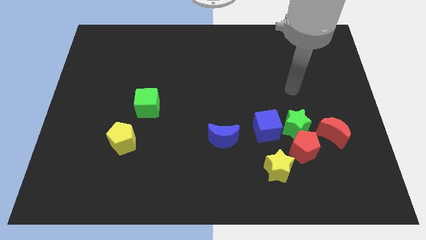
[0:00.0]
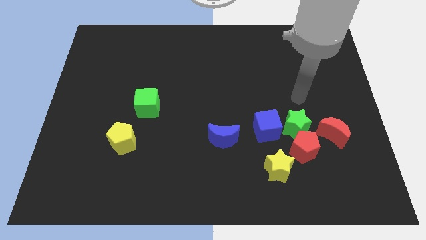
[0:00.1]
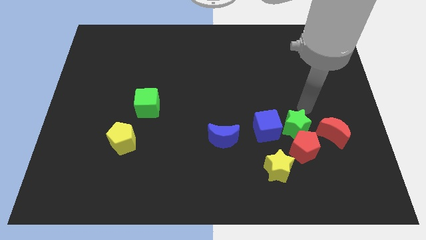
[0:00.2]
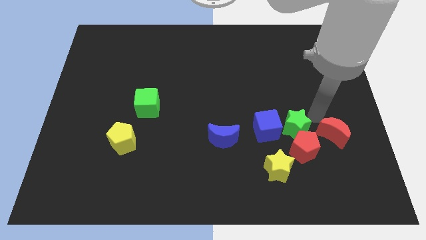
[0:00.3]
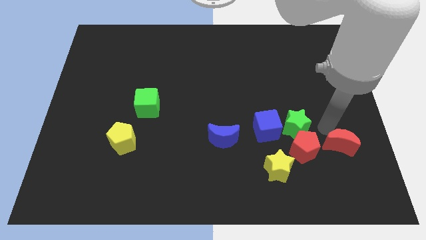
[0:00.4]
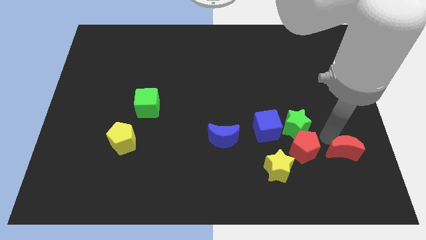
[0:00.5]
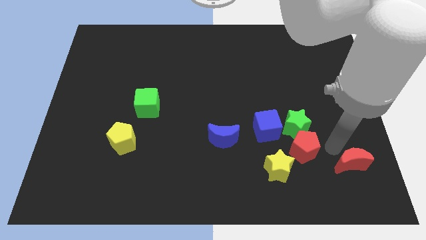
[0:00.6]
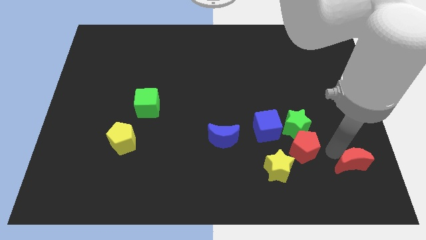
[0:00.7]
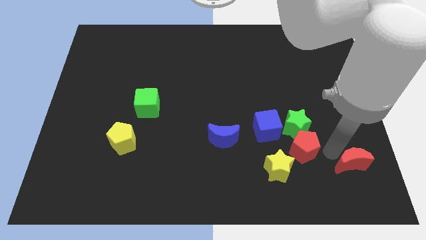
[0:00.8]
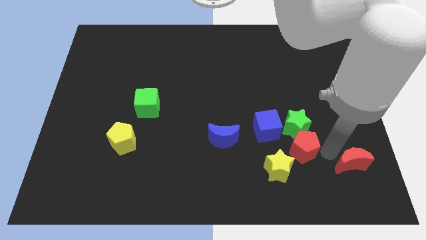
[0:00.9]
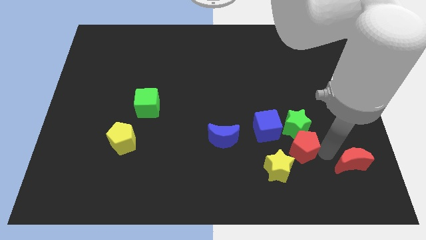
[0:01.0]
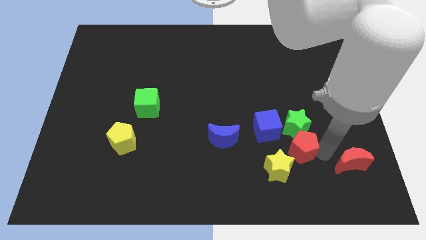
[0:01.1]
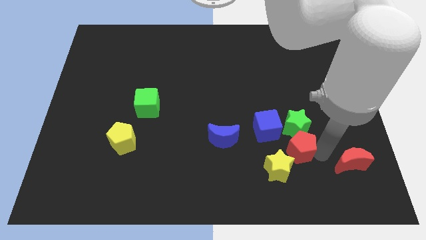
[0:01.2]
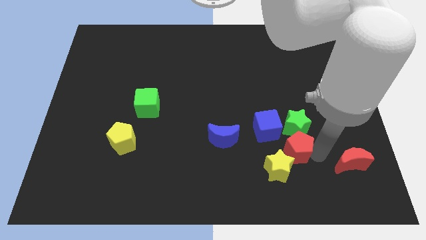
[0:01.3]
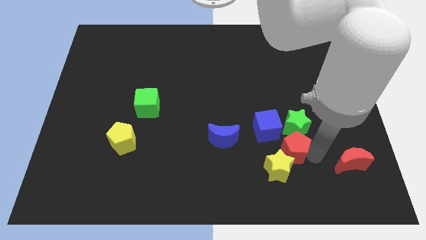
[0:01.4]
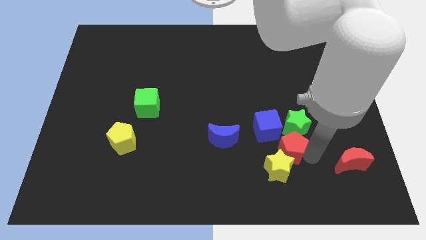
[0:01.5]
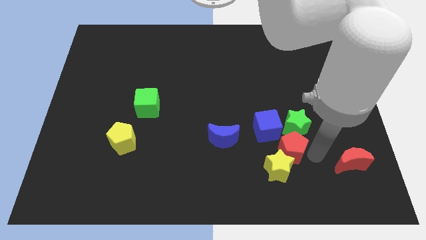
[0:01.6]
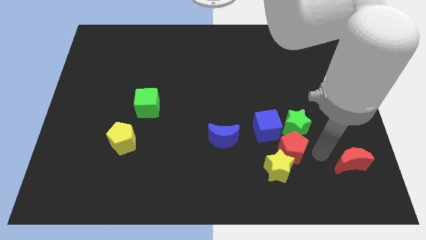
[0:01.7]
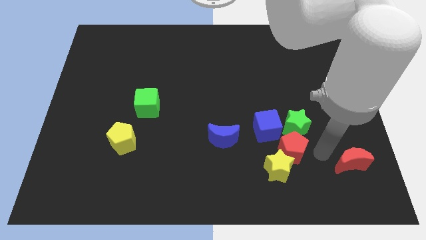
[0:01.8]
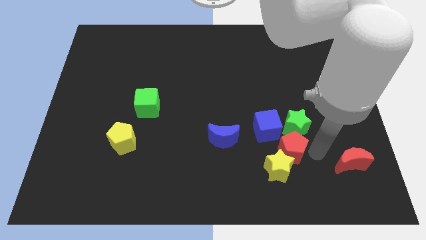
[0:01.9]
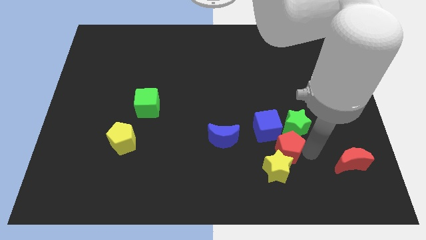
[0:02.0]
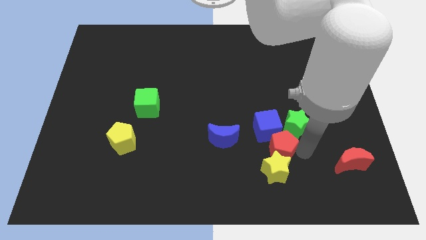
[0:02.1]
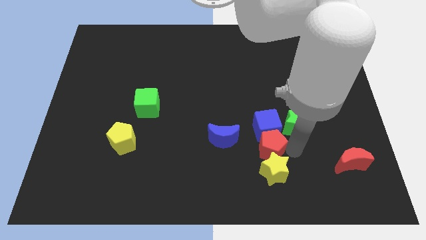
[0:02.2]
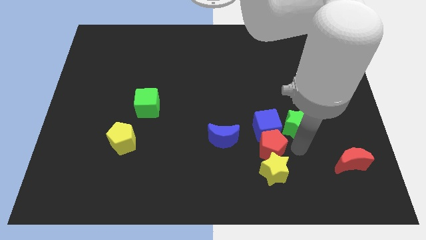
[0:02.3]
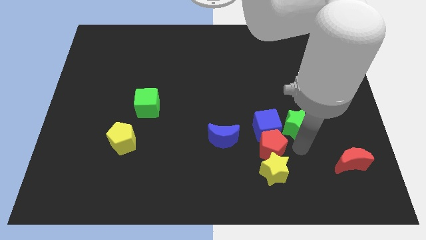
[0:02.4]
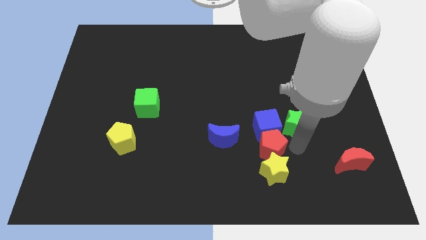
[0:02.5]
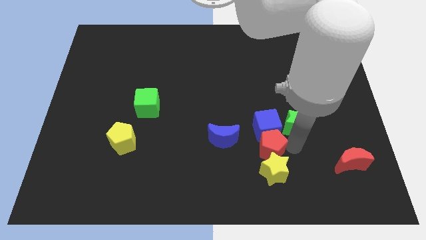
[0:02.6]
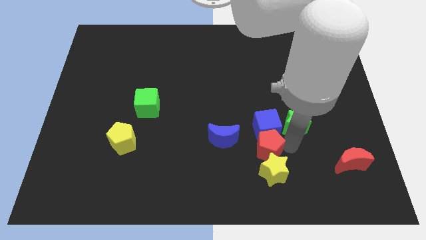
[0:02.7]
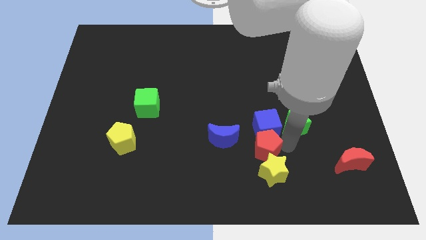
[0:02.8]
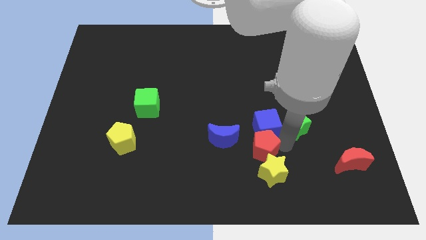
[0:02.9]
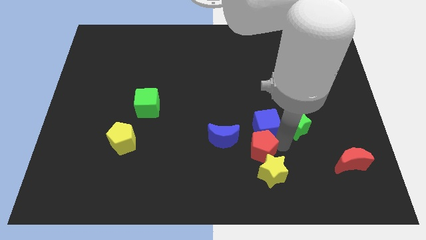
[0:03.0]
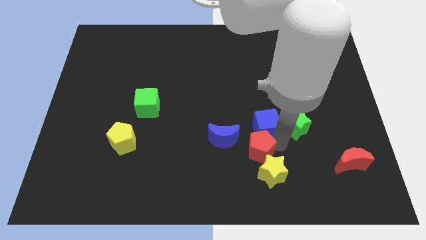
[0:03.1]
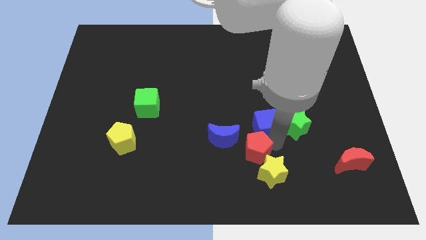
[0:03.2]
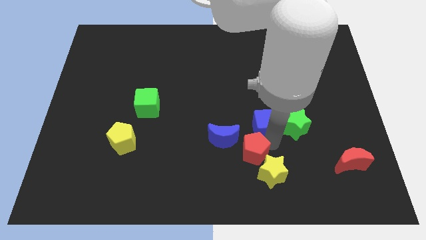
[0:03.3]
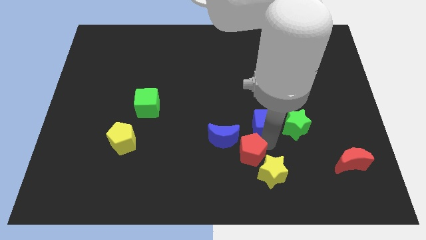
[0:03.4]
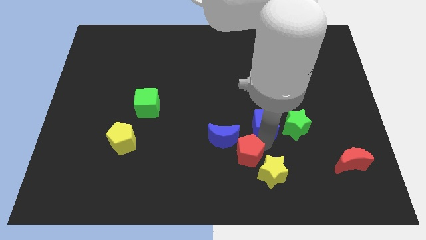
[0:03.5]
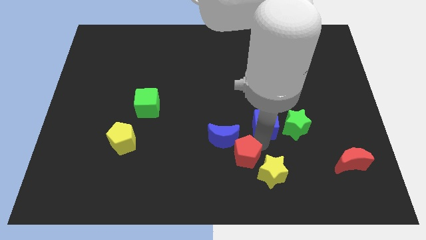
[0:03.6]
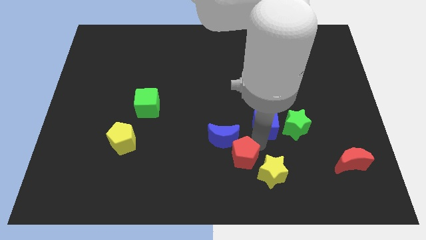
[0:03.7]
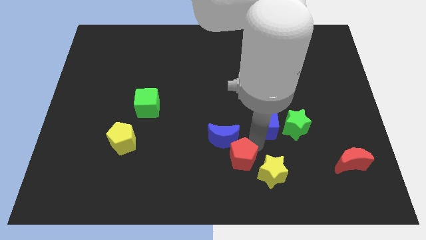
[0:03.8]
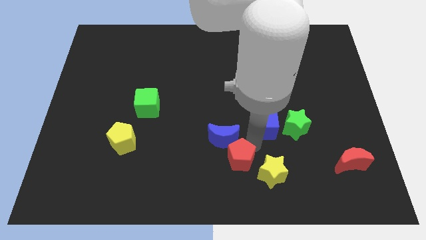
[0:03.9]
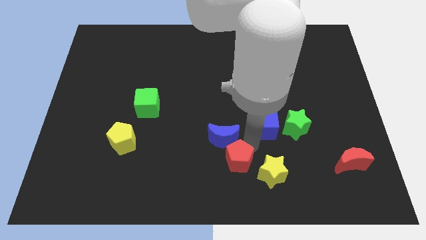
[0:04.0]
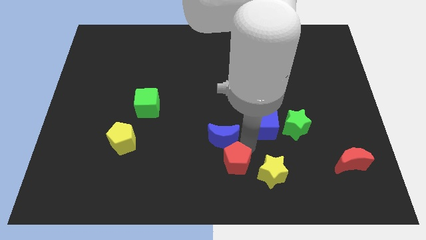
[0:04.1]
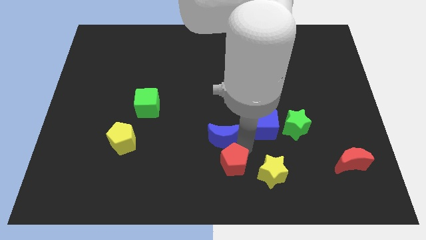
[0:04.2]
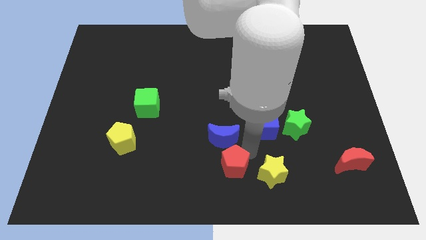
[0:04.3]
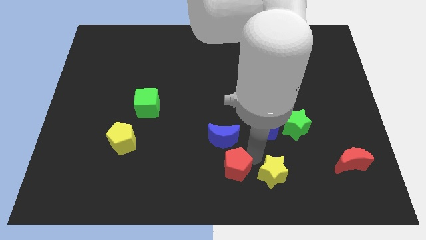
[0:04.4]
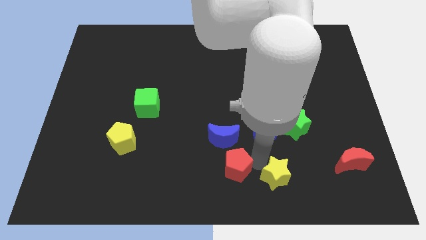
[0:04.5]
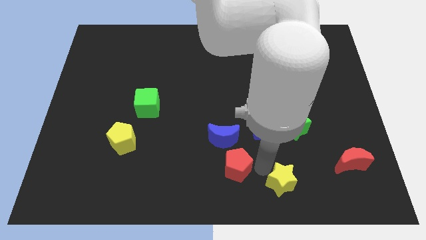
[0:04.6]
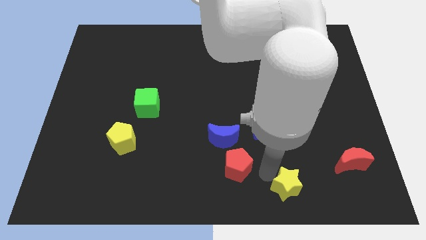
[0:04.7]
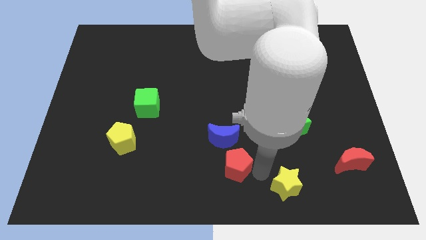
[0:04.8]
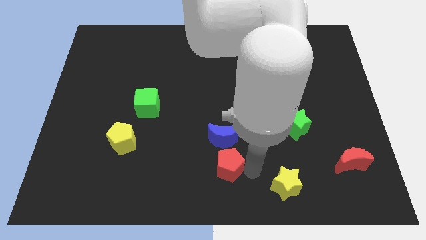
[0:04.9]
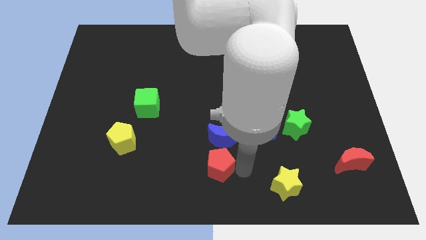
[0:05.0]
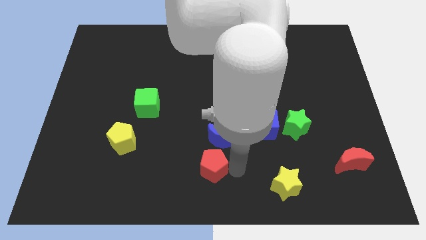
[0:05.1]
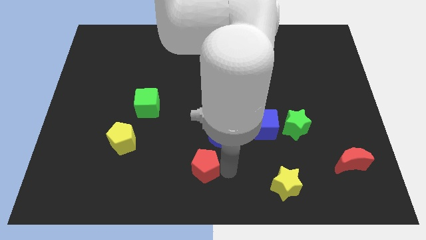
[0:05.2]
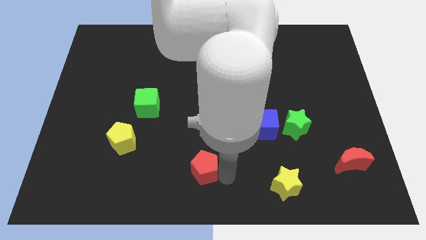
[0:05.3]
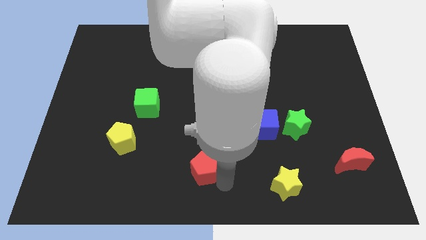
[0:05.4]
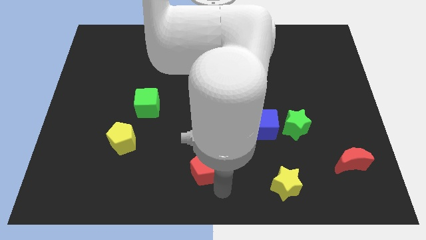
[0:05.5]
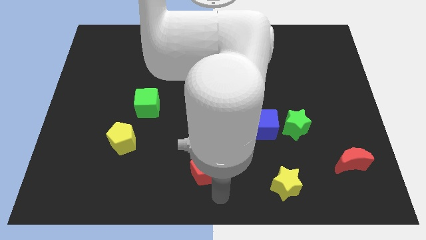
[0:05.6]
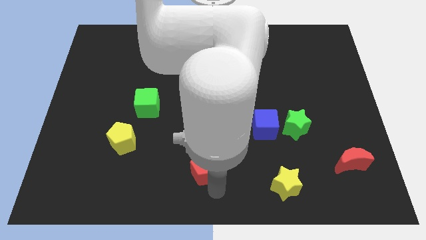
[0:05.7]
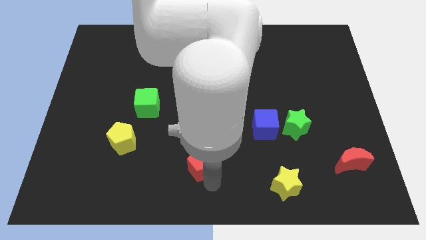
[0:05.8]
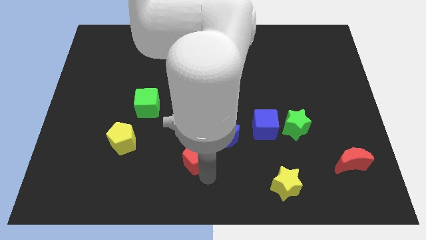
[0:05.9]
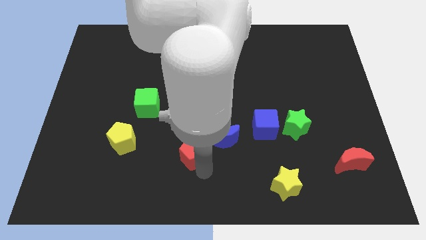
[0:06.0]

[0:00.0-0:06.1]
move the red pentagon left of the blue moon

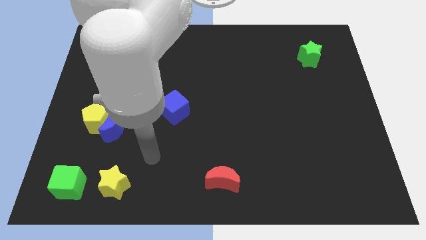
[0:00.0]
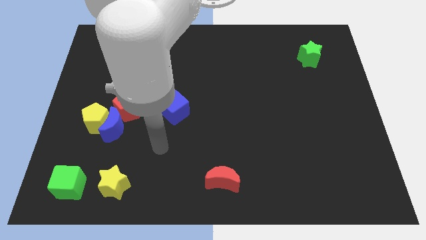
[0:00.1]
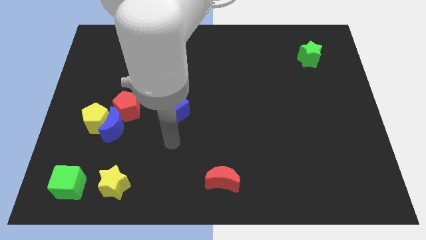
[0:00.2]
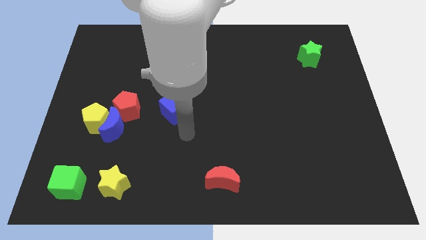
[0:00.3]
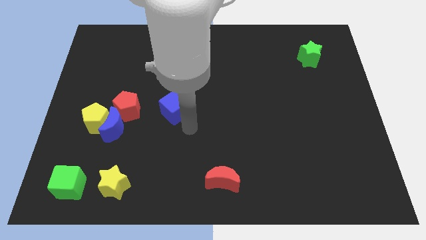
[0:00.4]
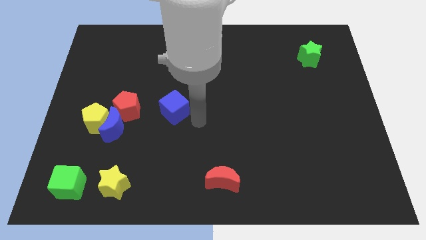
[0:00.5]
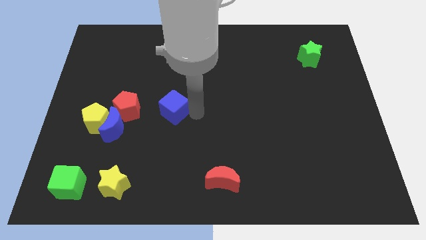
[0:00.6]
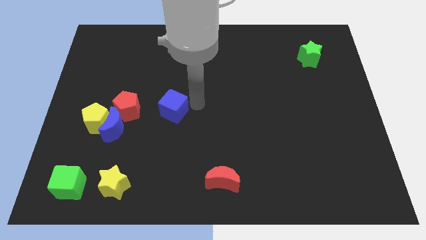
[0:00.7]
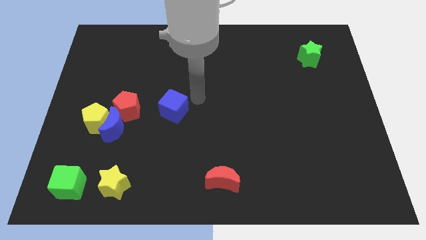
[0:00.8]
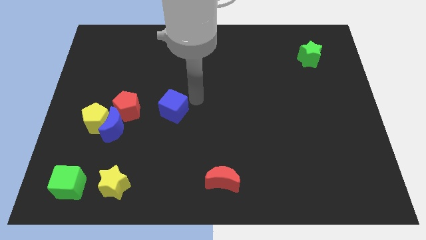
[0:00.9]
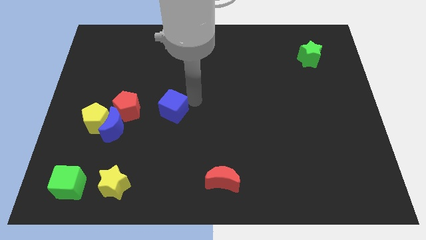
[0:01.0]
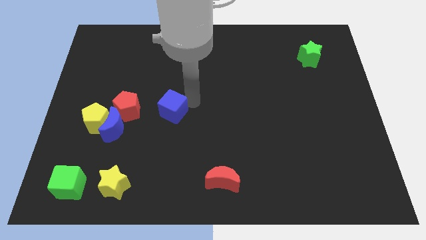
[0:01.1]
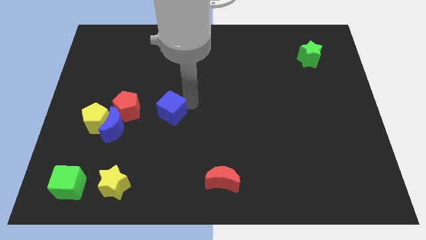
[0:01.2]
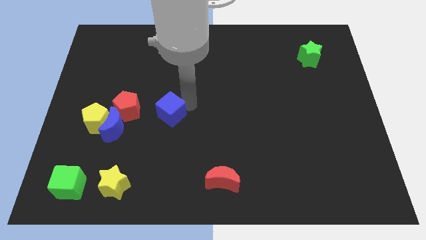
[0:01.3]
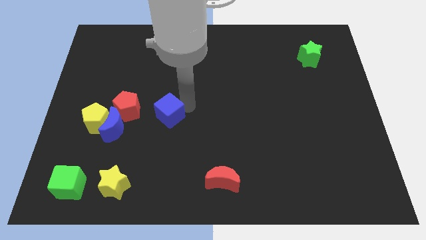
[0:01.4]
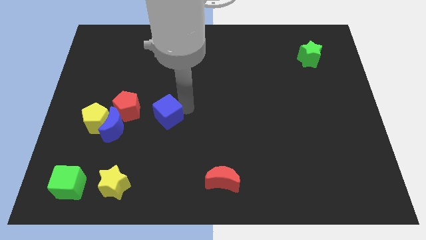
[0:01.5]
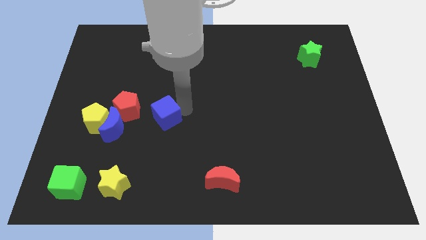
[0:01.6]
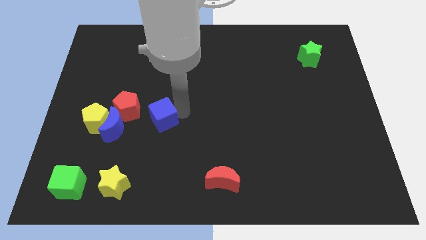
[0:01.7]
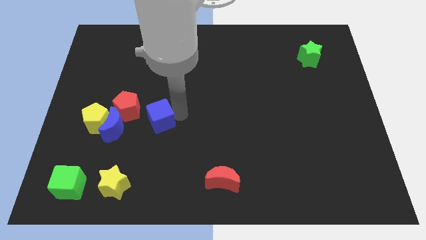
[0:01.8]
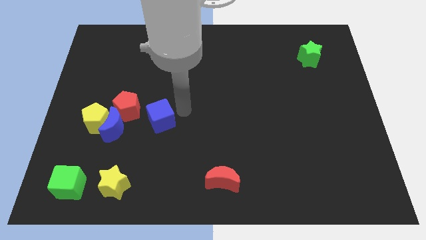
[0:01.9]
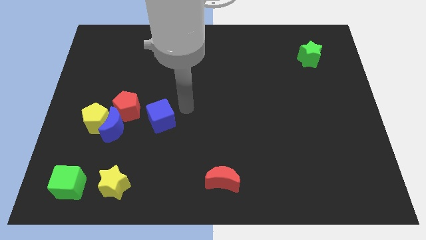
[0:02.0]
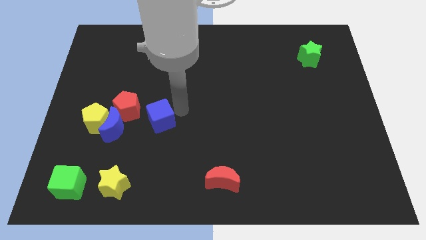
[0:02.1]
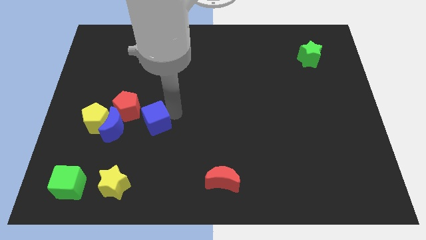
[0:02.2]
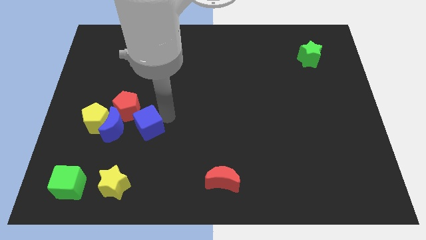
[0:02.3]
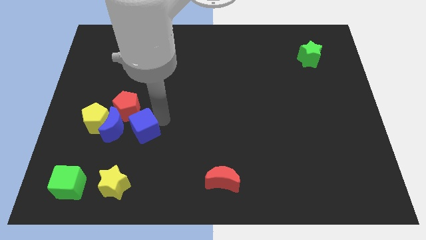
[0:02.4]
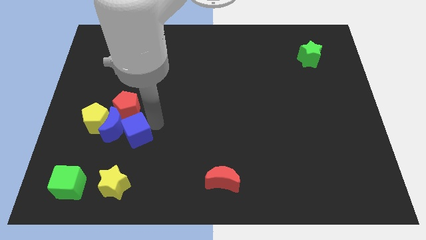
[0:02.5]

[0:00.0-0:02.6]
slide the blue cube to the bottom right side of the yellow pentagon
